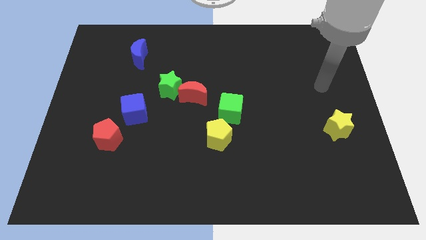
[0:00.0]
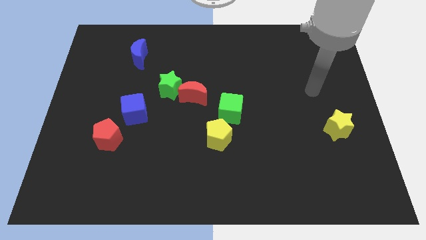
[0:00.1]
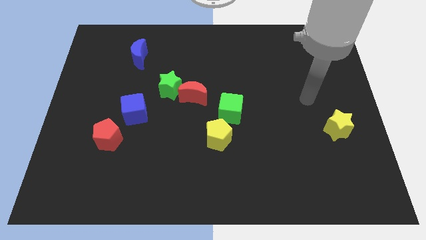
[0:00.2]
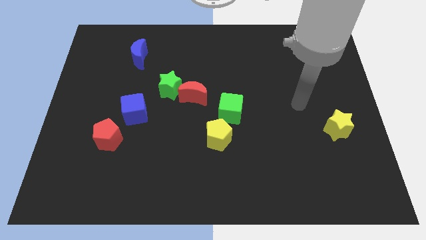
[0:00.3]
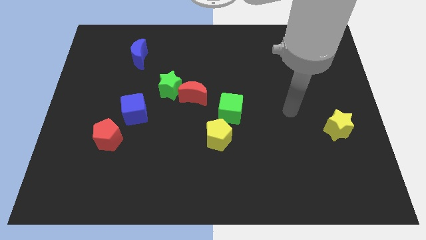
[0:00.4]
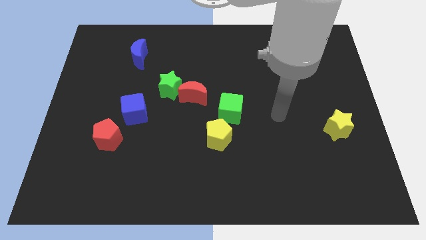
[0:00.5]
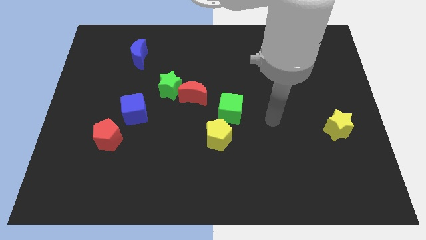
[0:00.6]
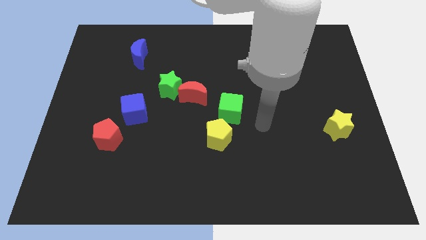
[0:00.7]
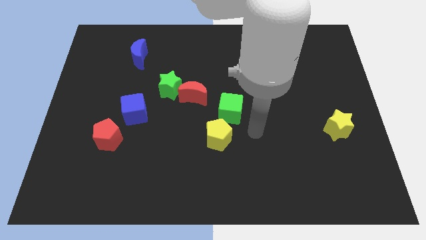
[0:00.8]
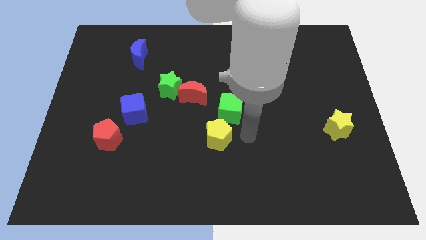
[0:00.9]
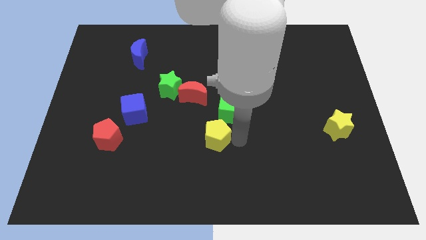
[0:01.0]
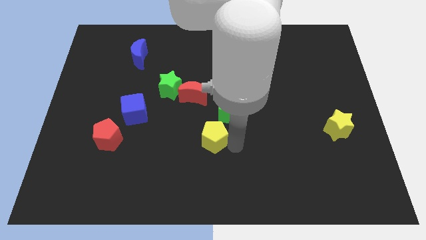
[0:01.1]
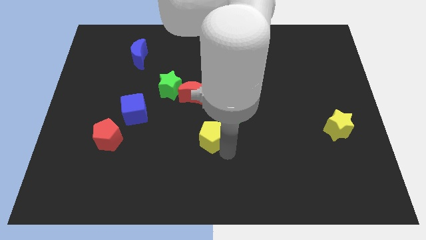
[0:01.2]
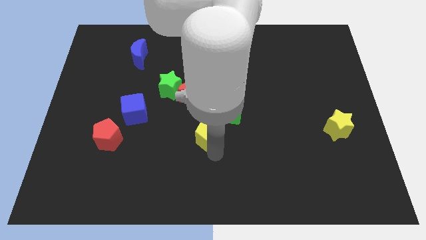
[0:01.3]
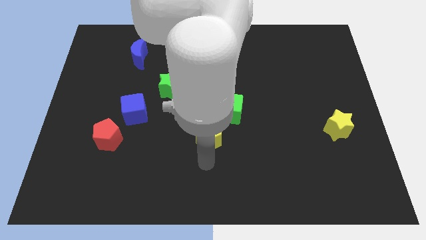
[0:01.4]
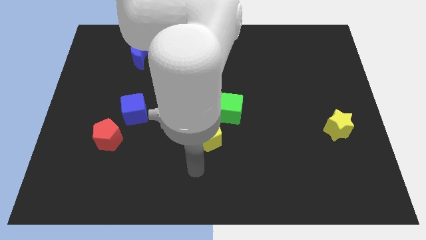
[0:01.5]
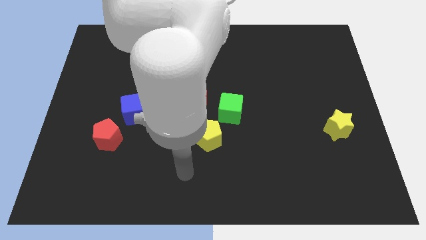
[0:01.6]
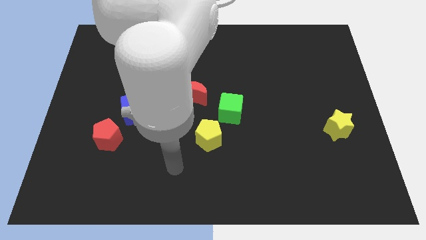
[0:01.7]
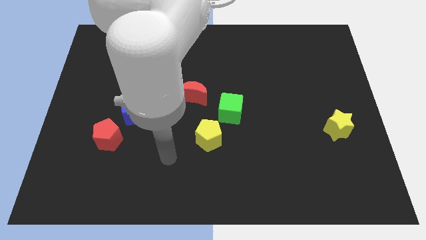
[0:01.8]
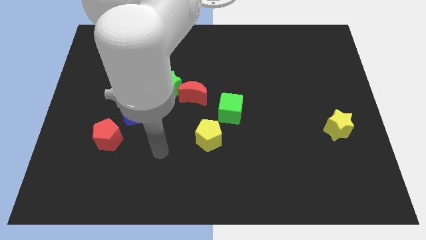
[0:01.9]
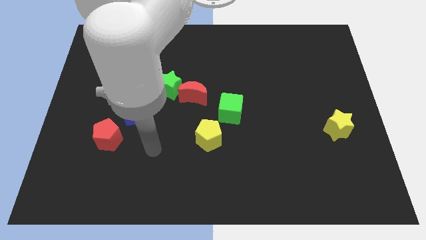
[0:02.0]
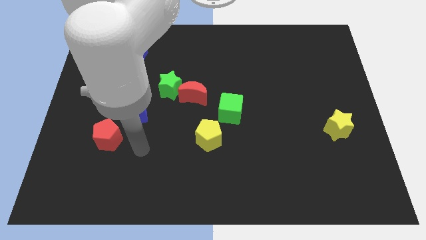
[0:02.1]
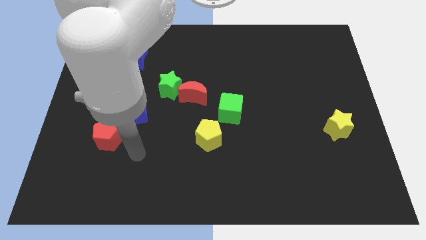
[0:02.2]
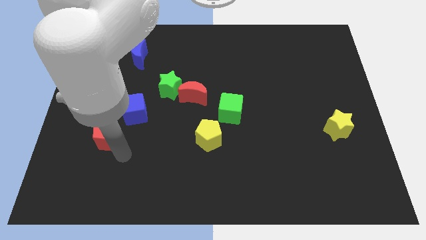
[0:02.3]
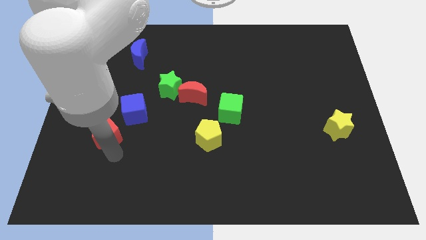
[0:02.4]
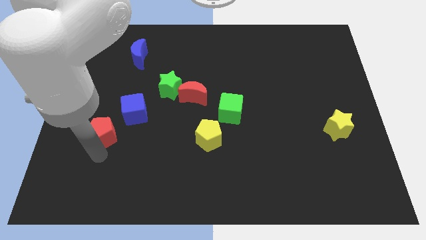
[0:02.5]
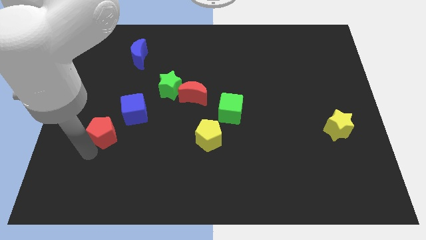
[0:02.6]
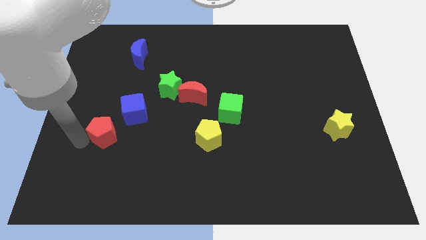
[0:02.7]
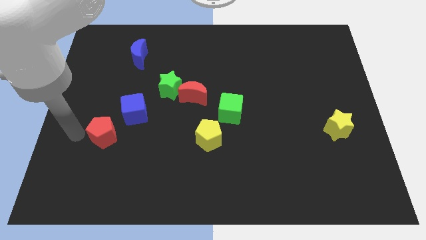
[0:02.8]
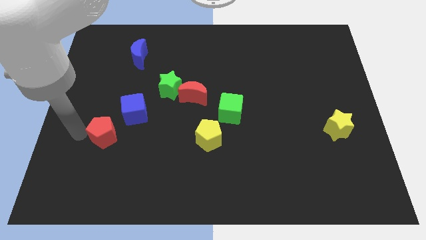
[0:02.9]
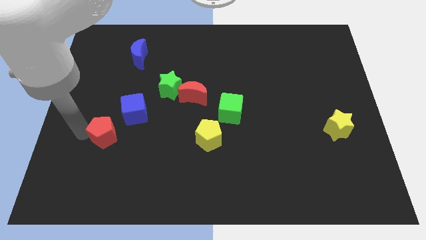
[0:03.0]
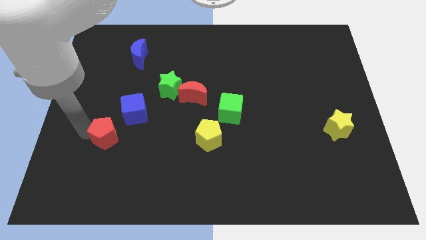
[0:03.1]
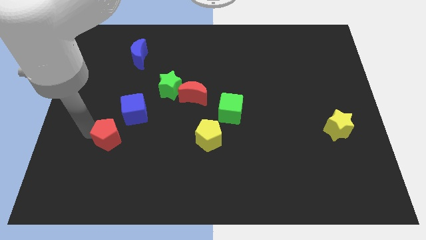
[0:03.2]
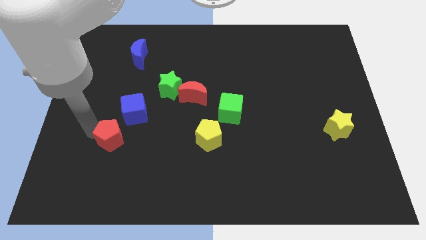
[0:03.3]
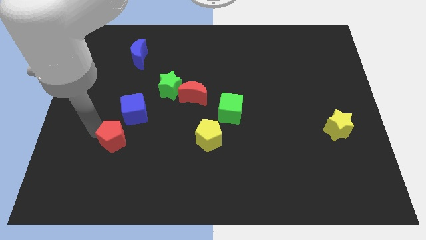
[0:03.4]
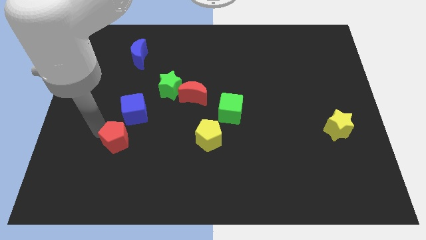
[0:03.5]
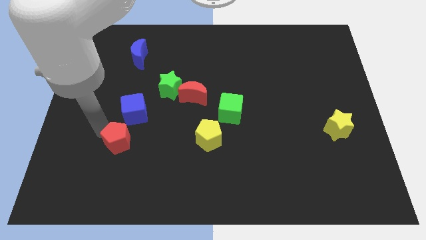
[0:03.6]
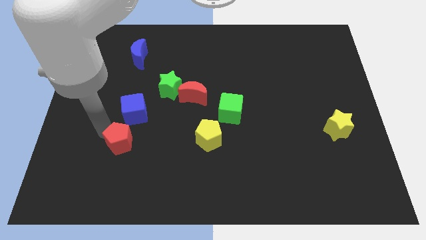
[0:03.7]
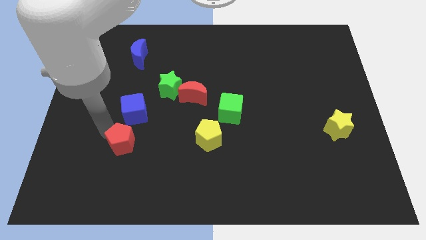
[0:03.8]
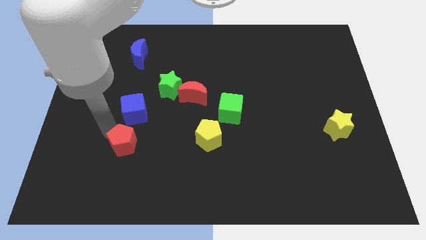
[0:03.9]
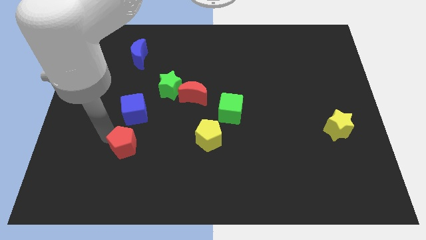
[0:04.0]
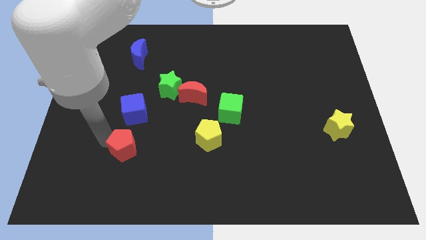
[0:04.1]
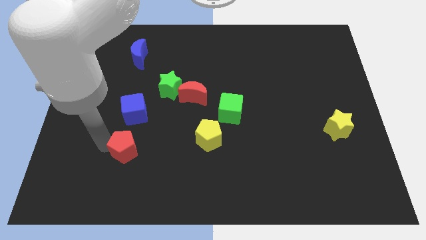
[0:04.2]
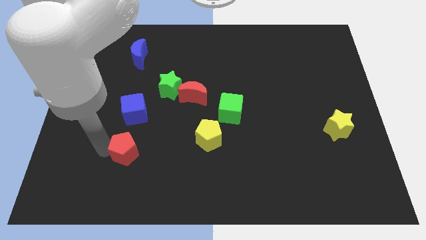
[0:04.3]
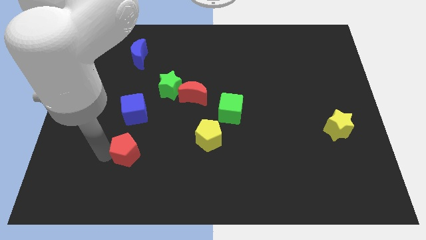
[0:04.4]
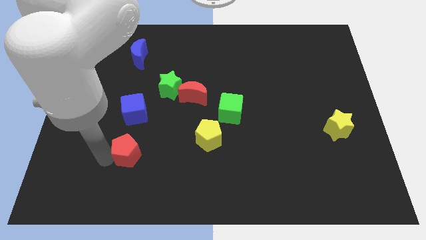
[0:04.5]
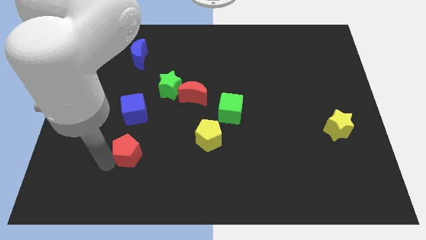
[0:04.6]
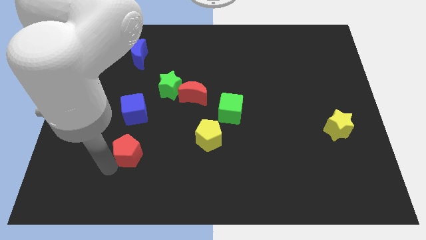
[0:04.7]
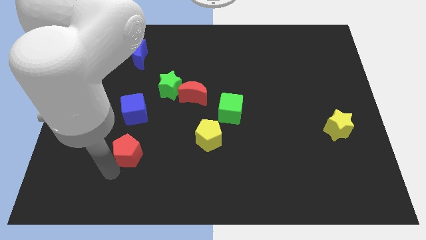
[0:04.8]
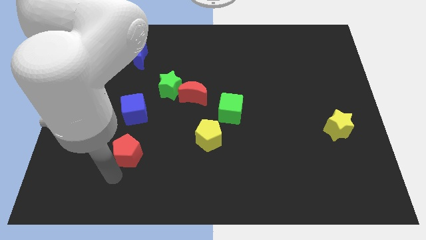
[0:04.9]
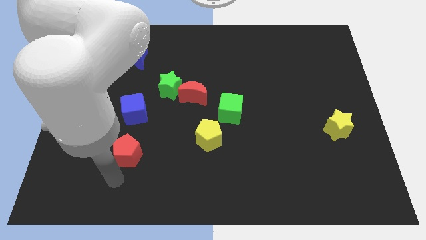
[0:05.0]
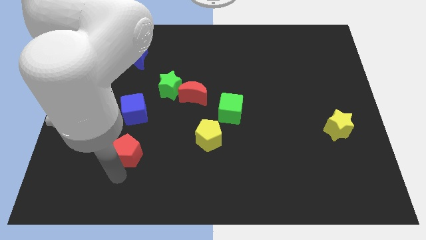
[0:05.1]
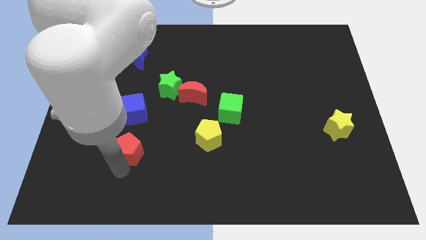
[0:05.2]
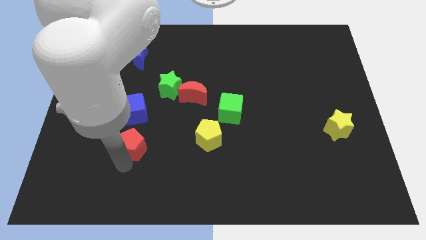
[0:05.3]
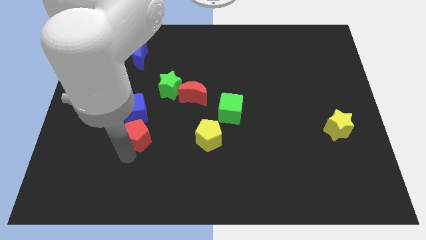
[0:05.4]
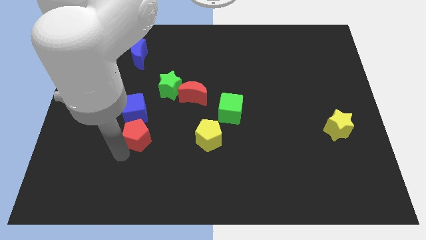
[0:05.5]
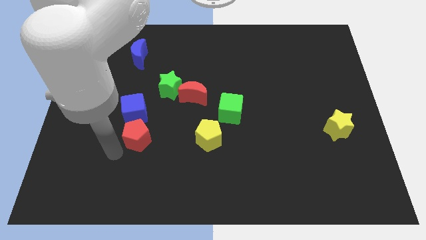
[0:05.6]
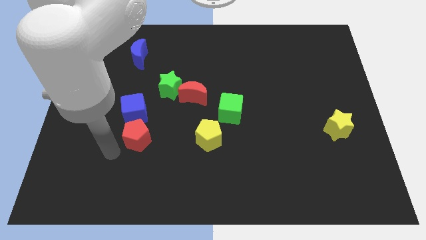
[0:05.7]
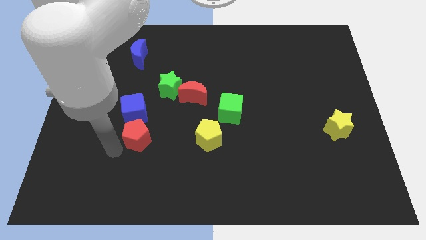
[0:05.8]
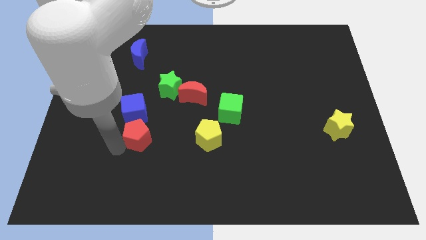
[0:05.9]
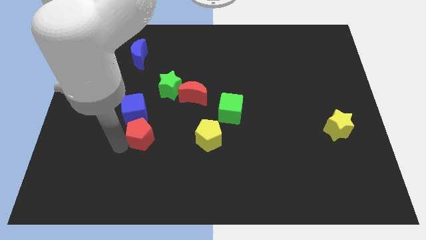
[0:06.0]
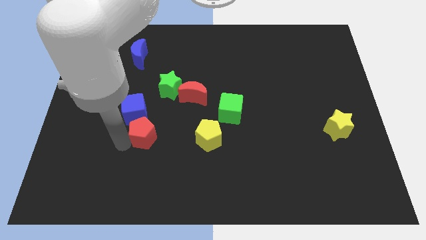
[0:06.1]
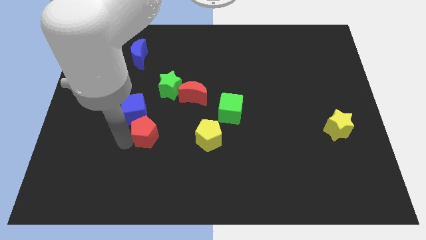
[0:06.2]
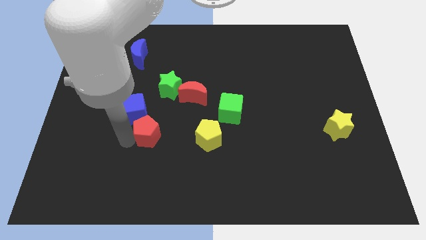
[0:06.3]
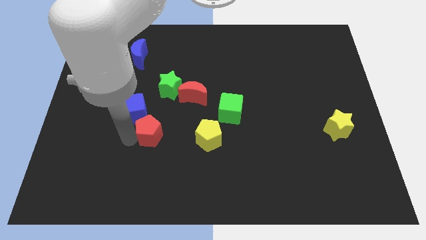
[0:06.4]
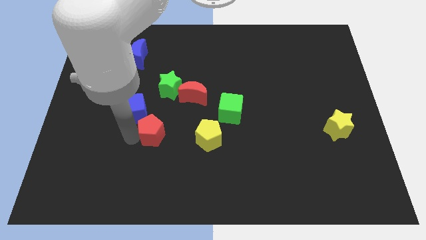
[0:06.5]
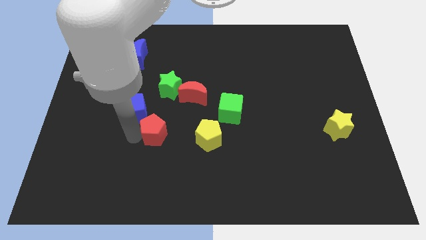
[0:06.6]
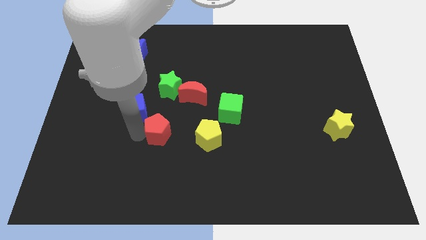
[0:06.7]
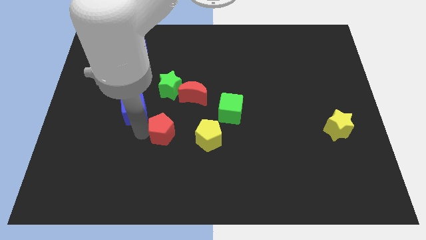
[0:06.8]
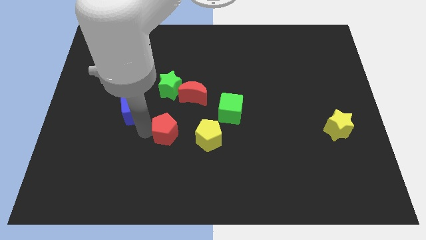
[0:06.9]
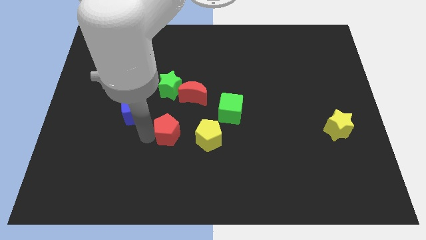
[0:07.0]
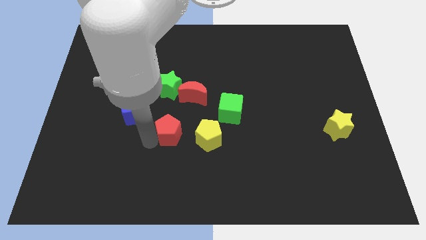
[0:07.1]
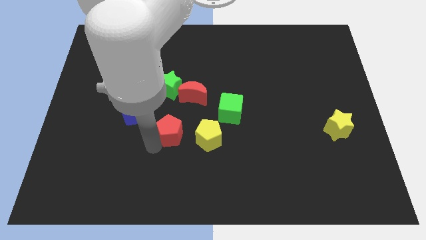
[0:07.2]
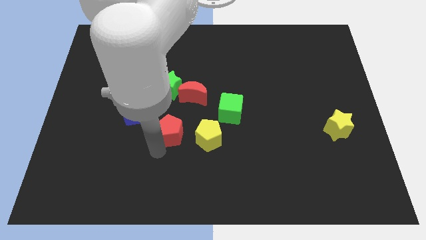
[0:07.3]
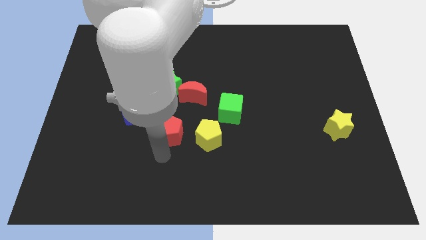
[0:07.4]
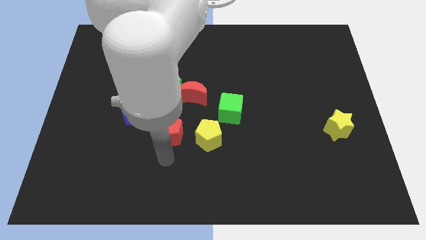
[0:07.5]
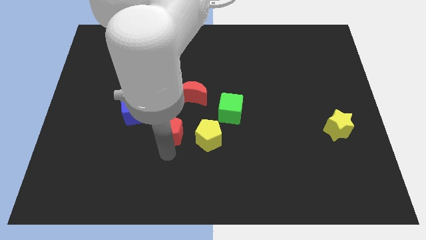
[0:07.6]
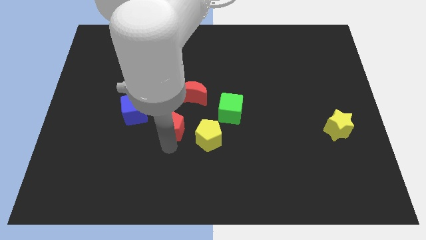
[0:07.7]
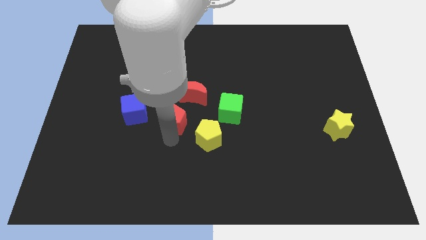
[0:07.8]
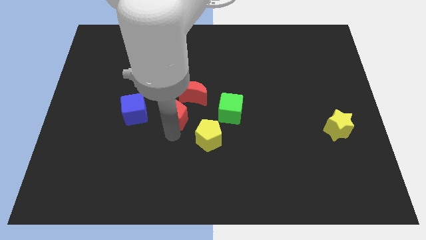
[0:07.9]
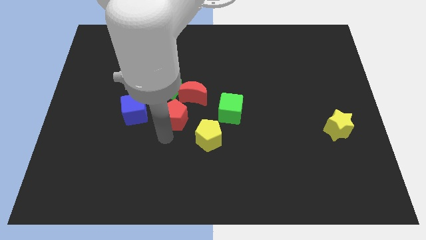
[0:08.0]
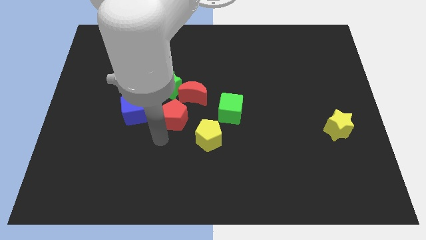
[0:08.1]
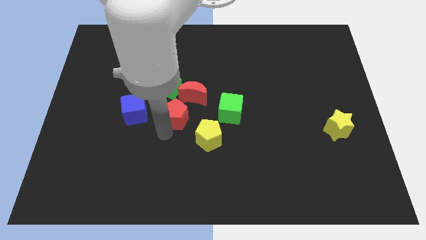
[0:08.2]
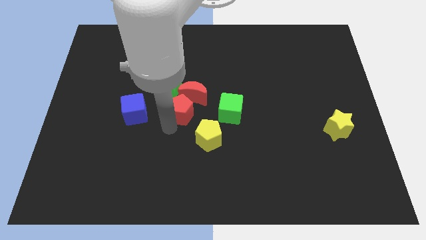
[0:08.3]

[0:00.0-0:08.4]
slide the red pentagon next to the red moon

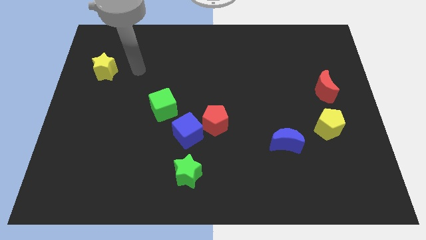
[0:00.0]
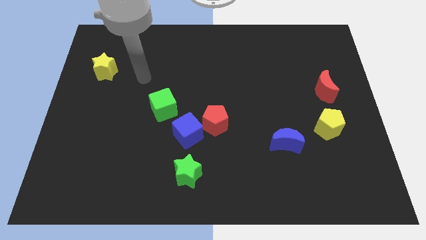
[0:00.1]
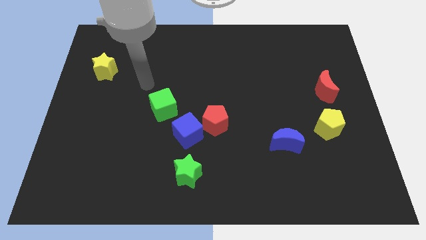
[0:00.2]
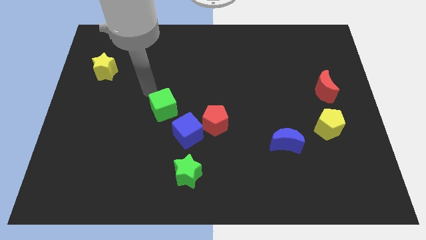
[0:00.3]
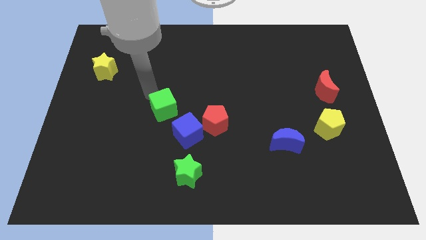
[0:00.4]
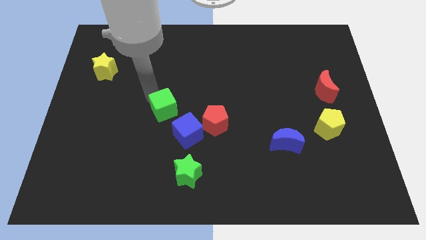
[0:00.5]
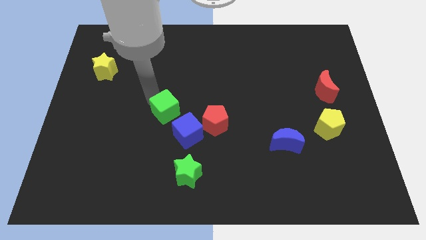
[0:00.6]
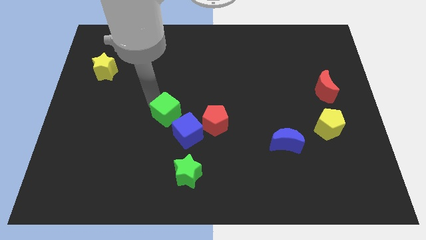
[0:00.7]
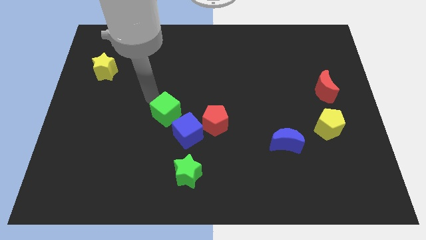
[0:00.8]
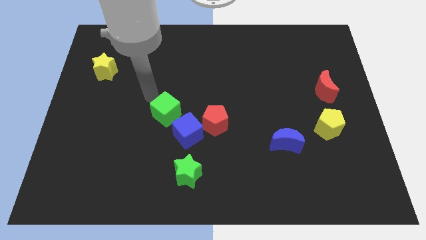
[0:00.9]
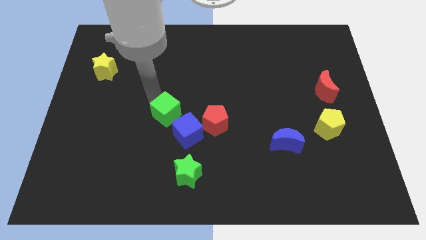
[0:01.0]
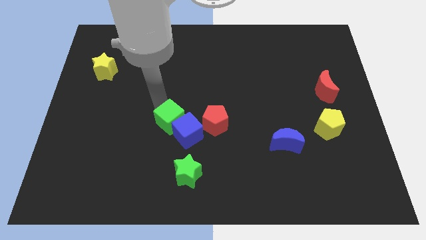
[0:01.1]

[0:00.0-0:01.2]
move the green cube close to the blue cube
